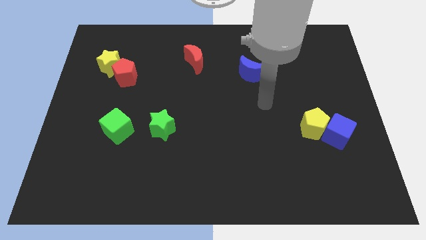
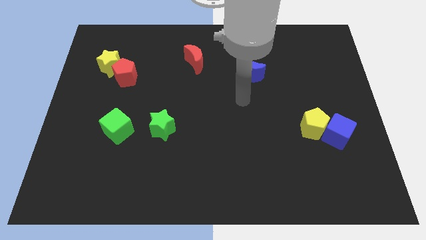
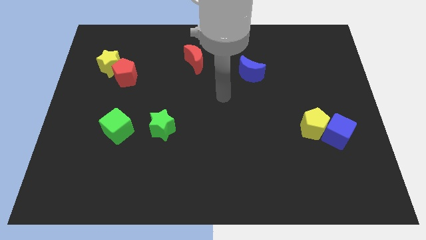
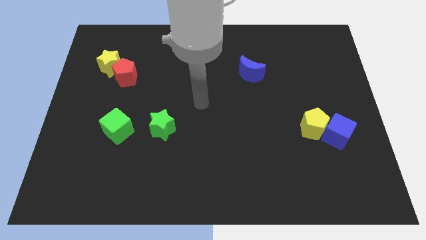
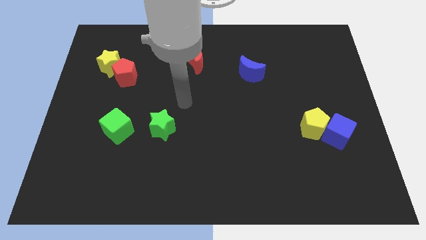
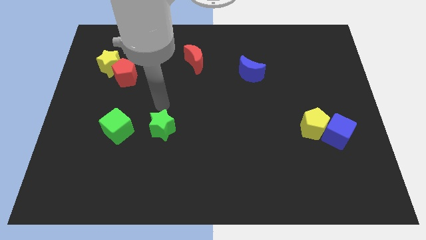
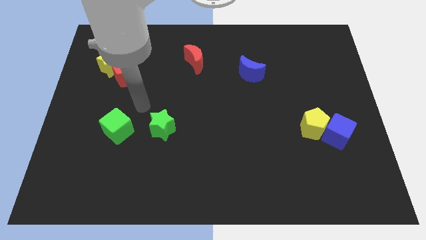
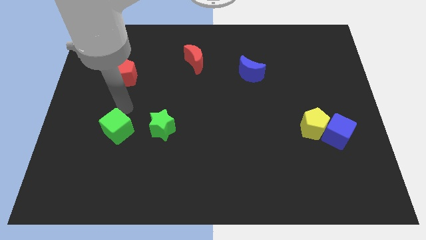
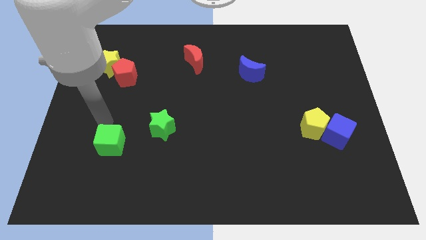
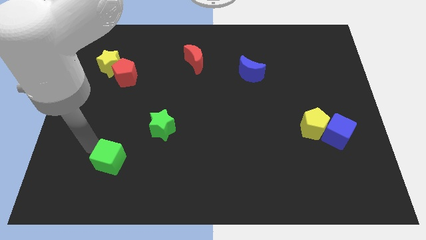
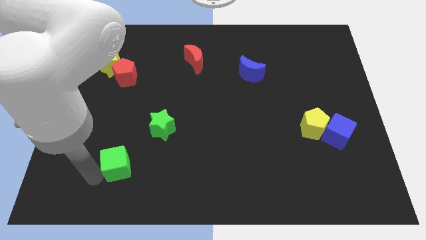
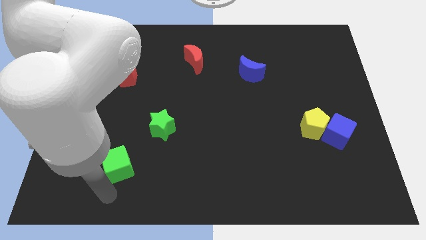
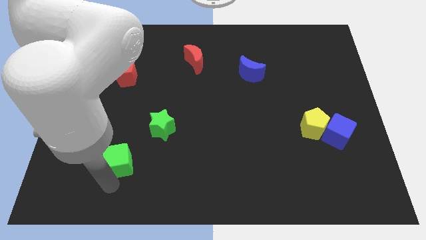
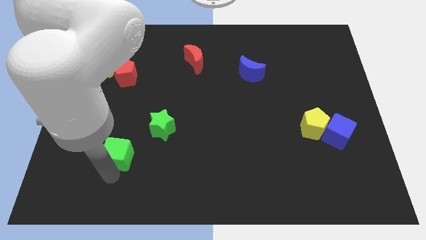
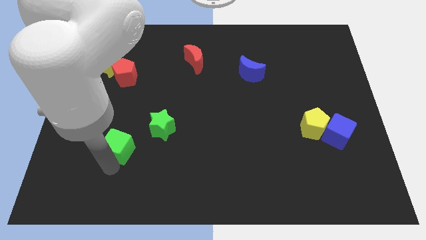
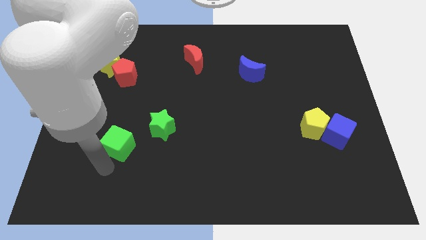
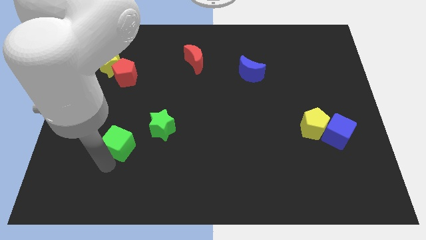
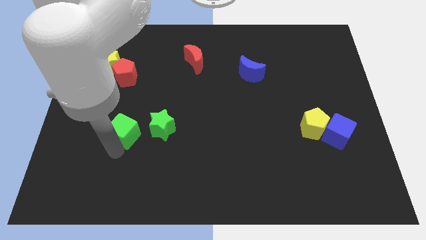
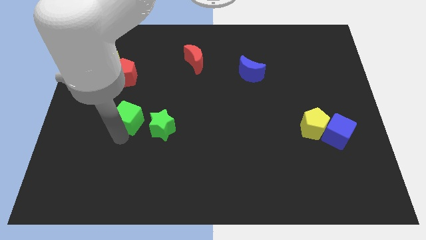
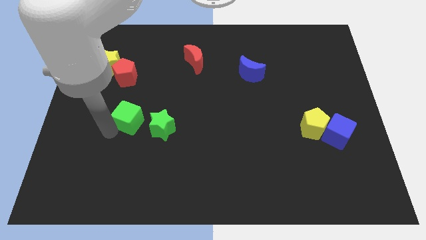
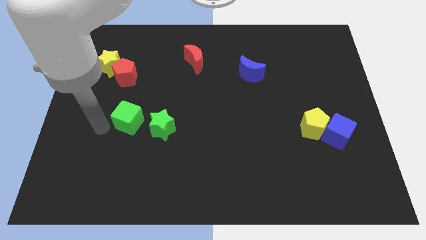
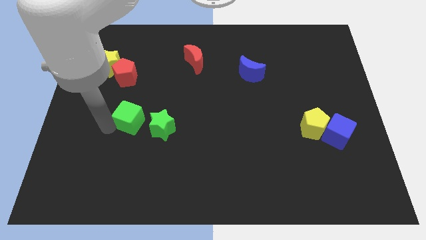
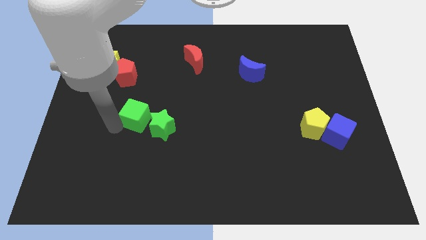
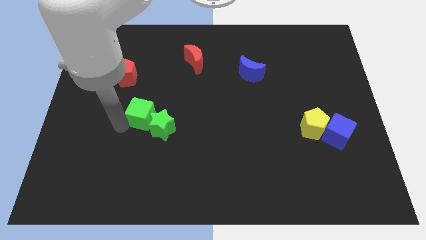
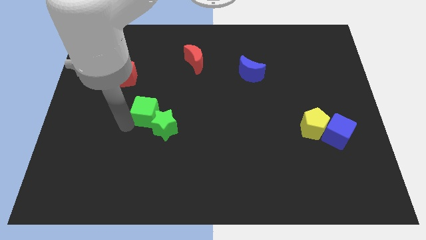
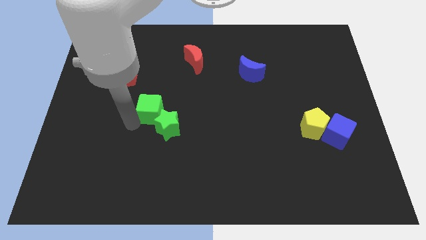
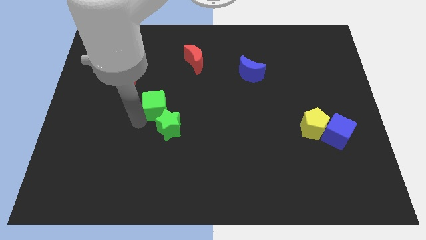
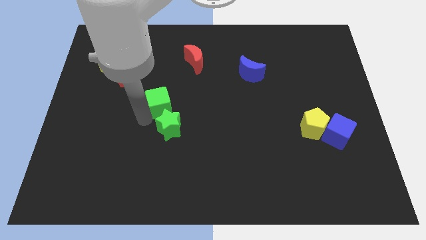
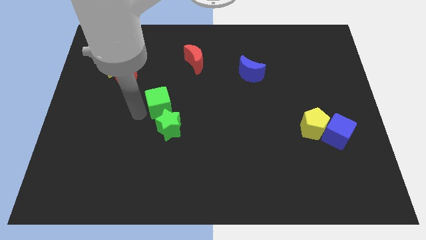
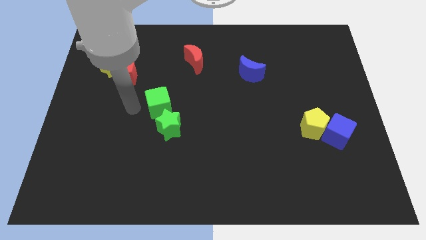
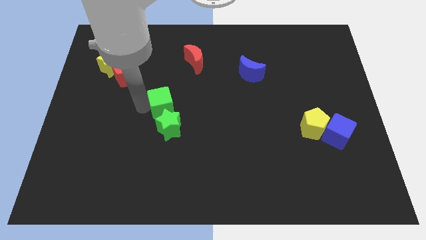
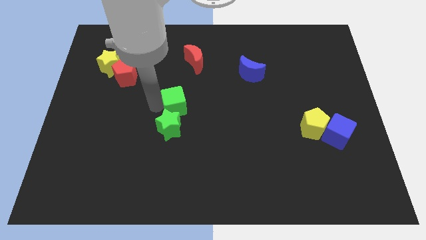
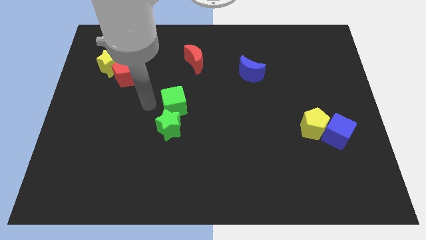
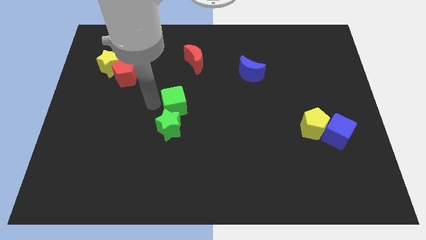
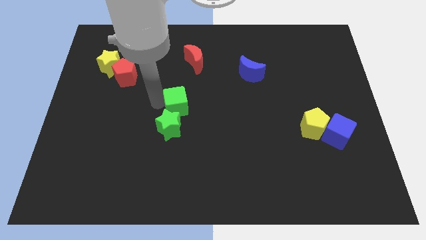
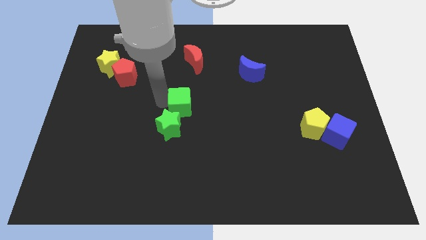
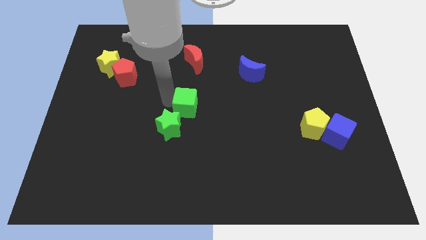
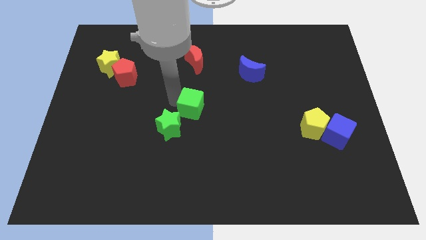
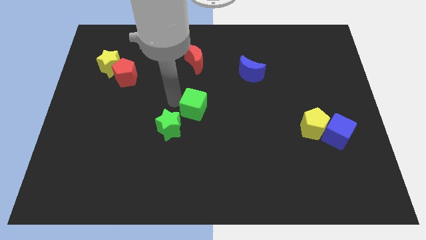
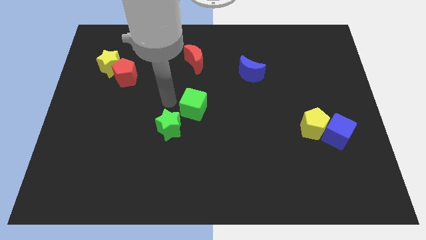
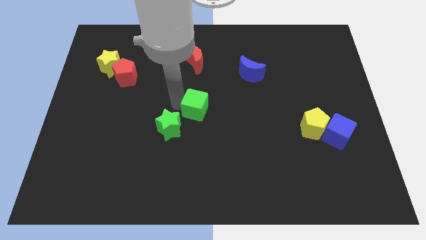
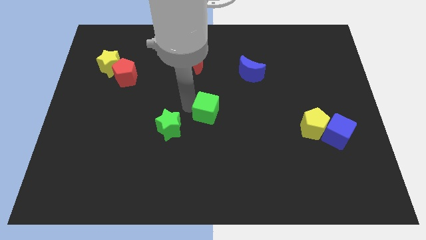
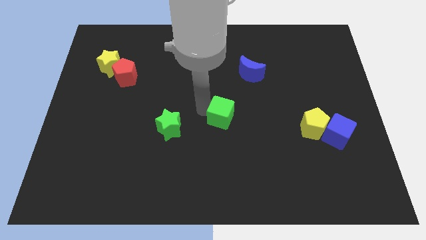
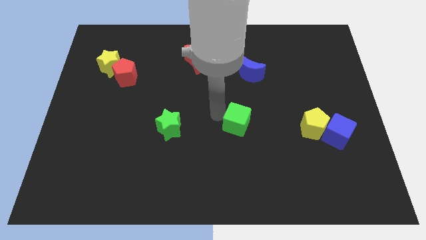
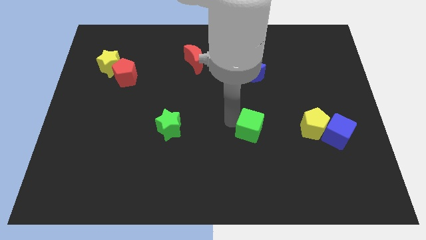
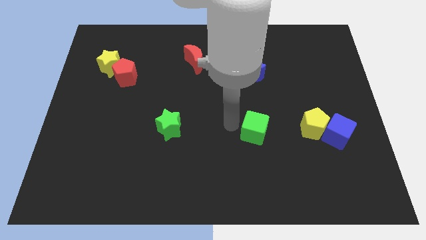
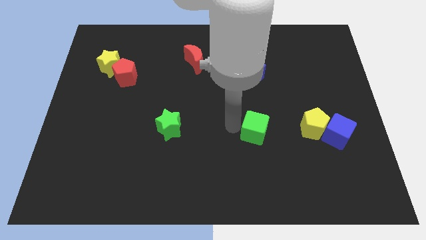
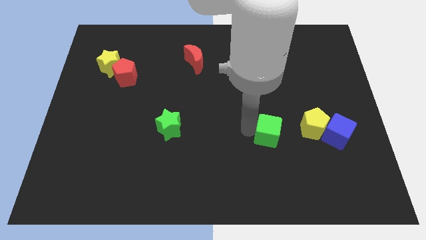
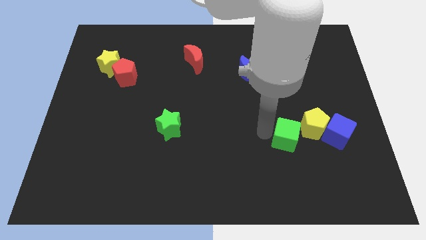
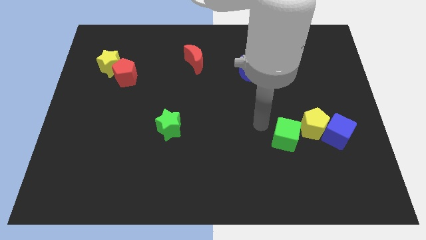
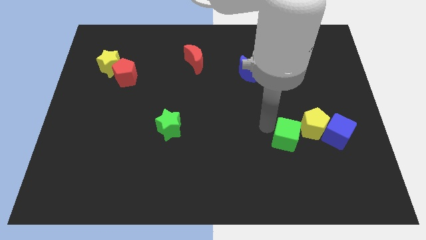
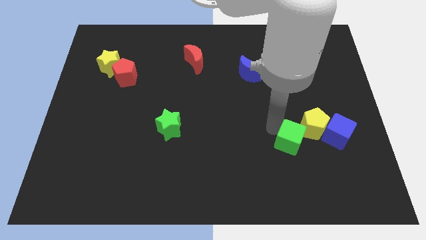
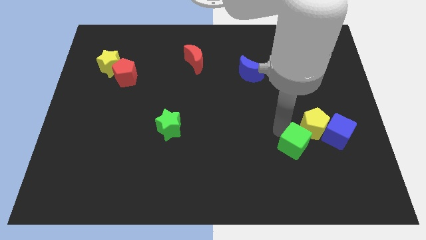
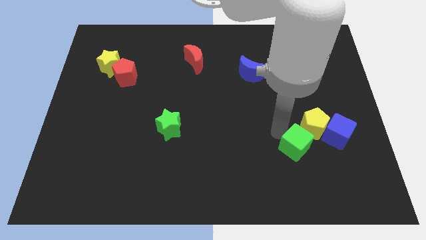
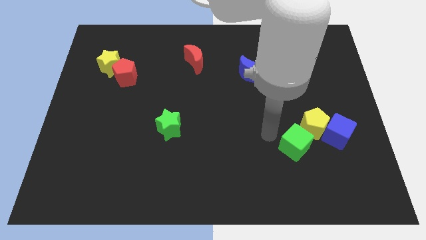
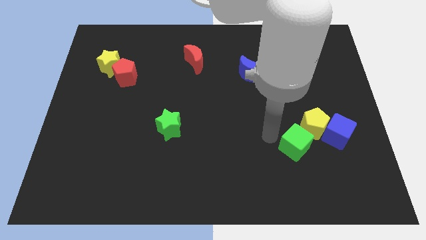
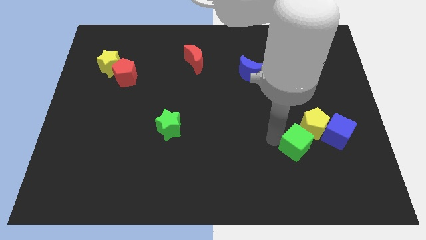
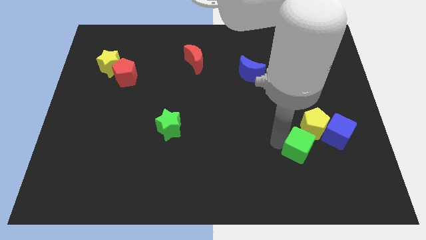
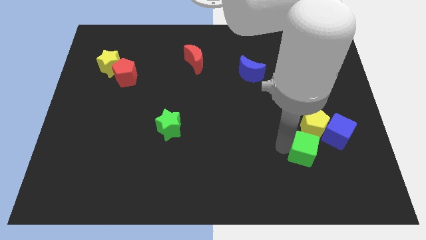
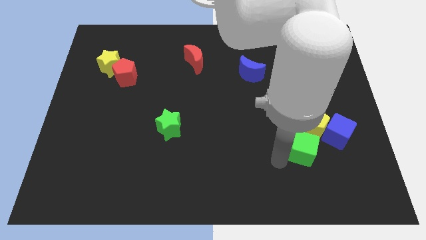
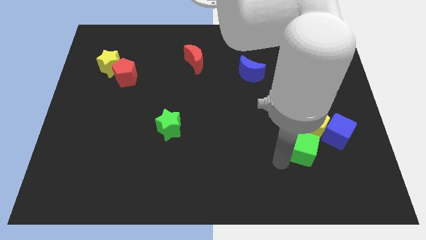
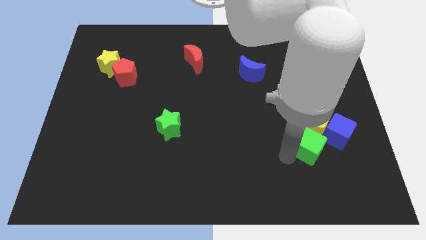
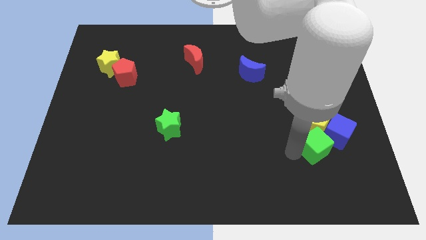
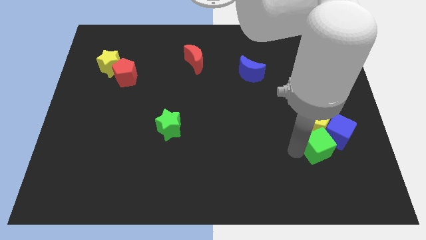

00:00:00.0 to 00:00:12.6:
slide the green cube to the blue cube

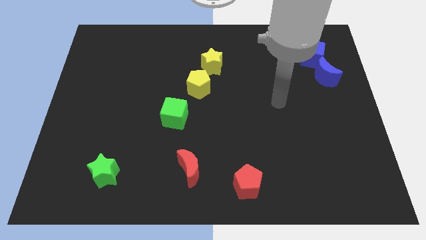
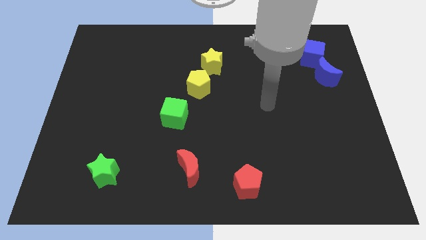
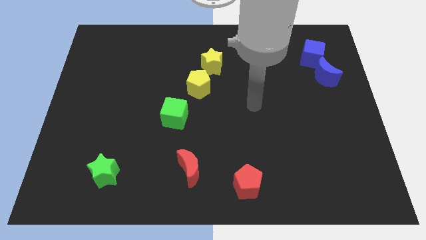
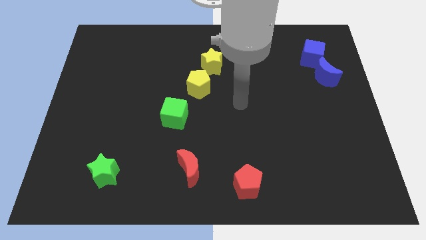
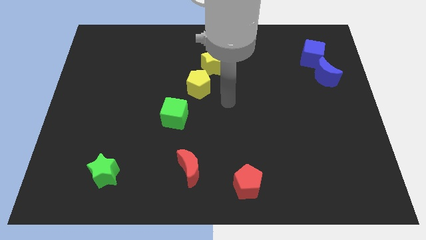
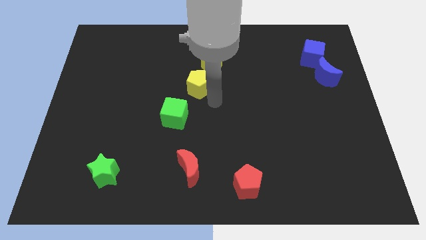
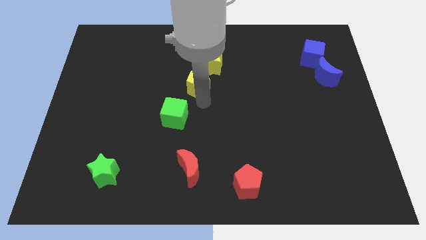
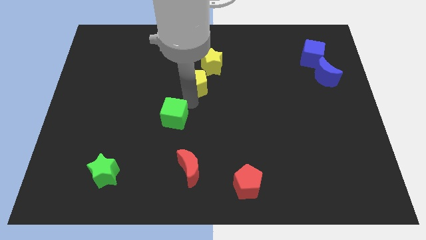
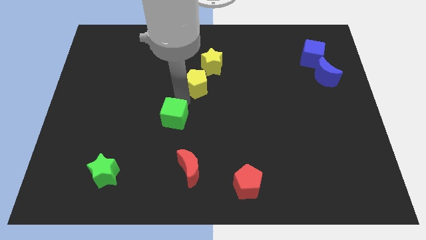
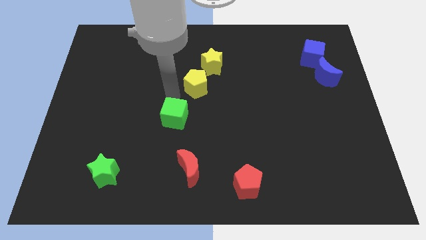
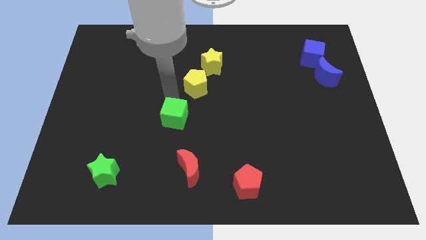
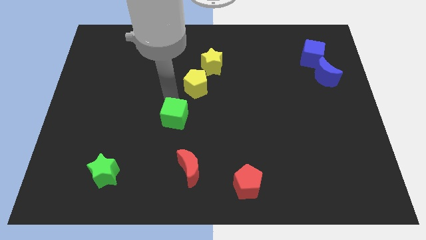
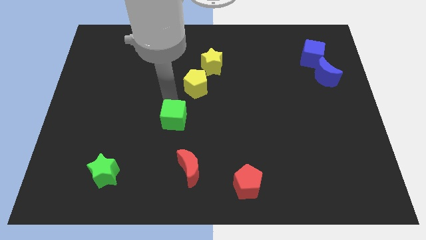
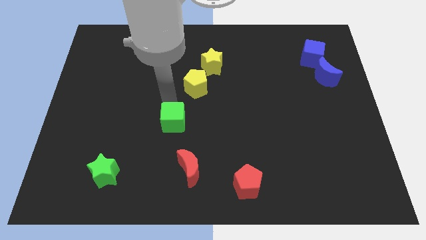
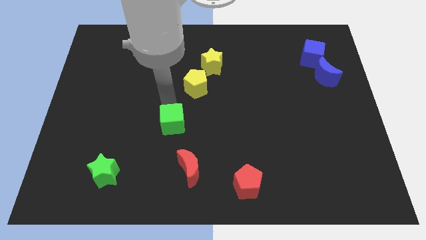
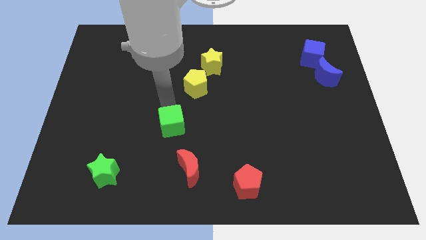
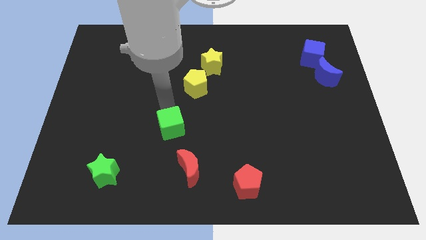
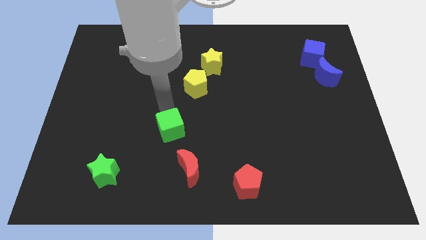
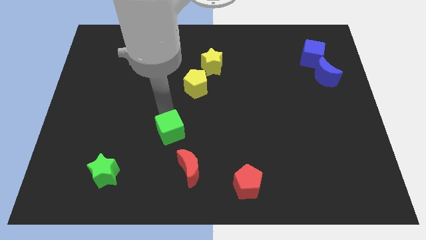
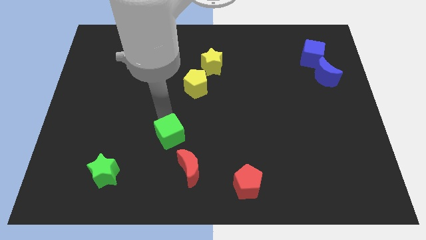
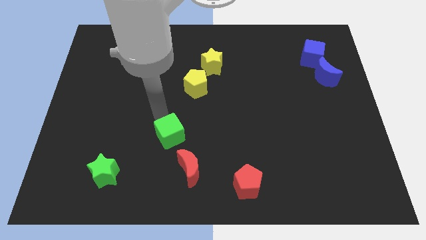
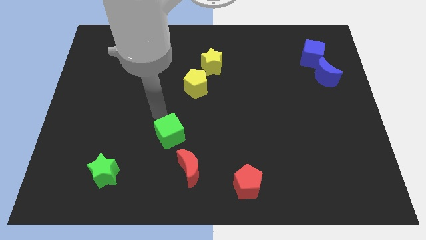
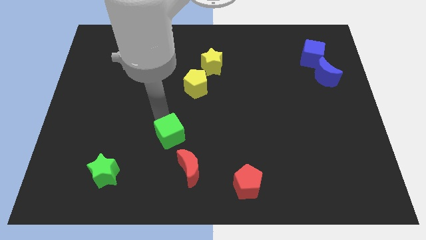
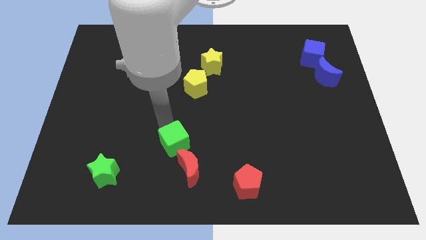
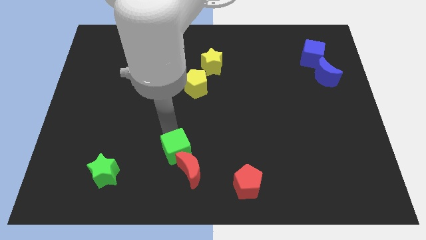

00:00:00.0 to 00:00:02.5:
push the green cube close to the red moon
